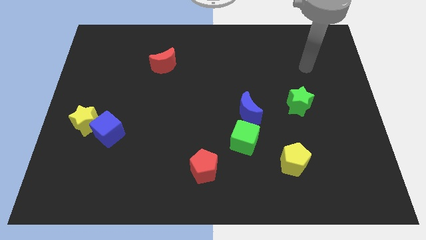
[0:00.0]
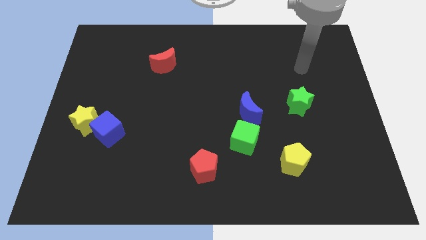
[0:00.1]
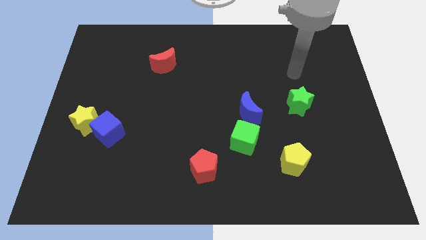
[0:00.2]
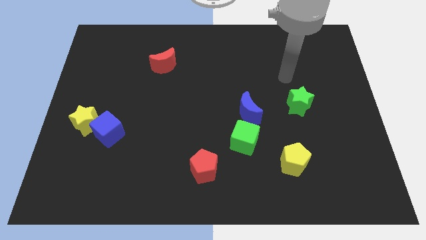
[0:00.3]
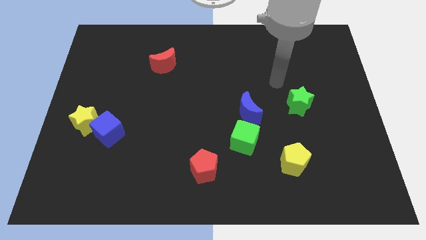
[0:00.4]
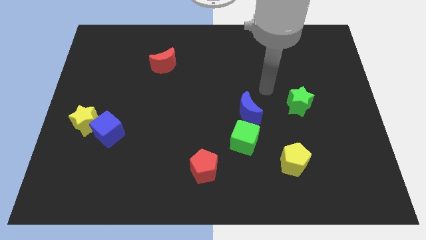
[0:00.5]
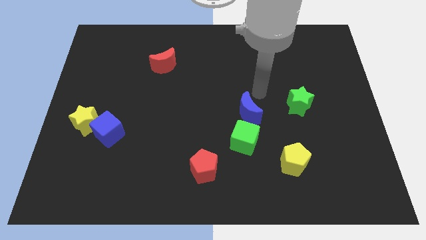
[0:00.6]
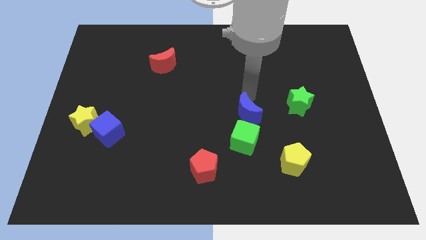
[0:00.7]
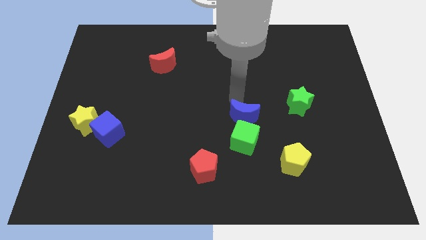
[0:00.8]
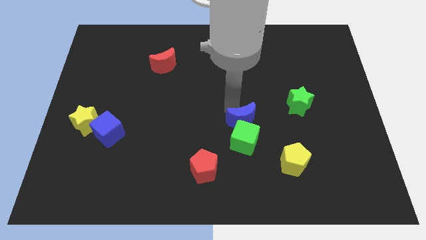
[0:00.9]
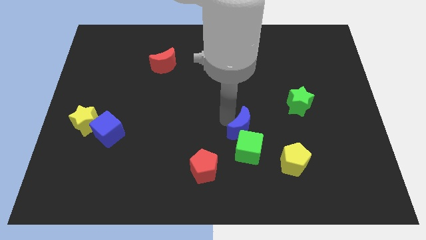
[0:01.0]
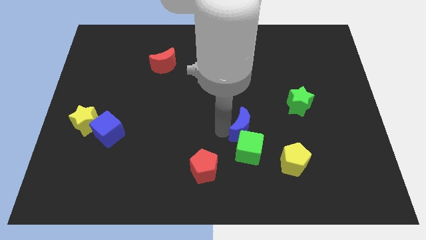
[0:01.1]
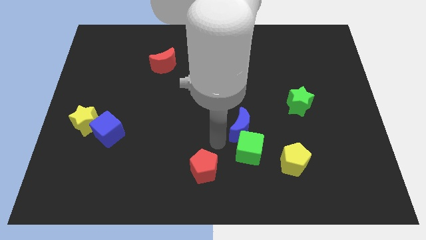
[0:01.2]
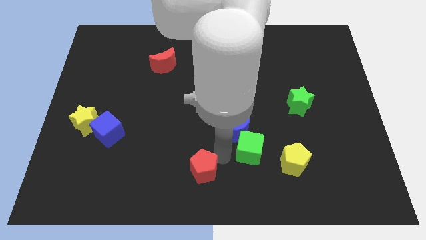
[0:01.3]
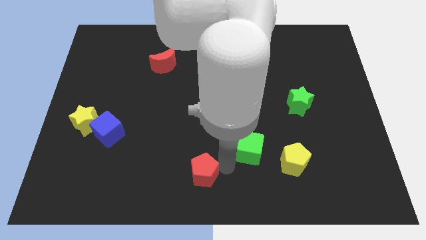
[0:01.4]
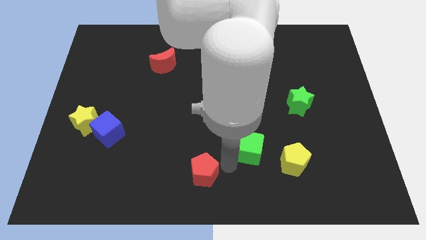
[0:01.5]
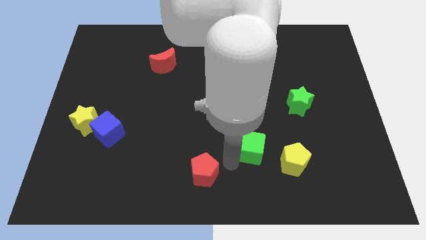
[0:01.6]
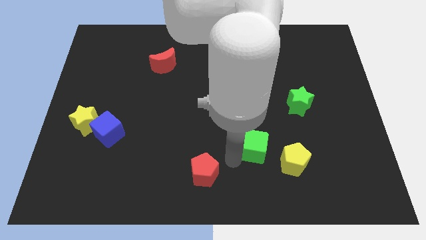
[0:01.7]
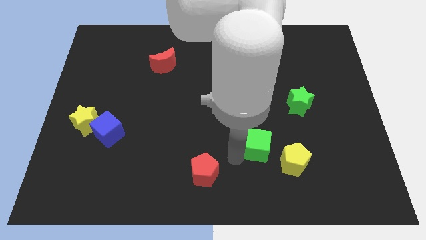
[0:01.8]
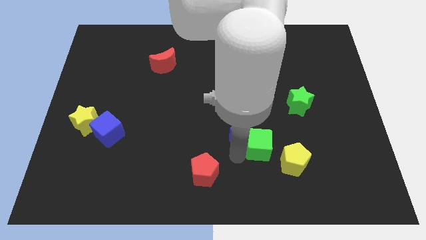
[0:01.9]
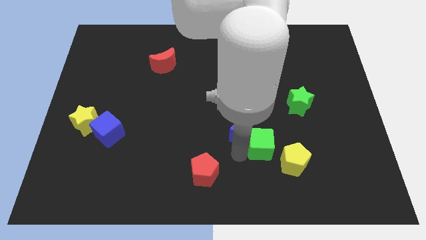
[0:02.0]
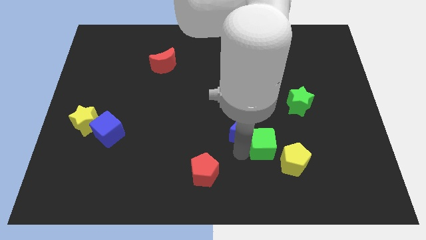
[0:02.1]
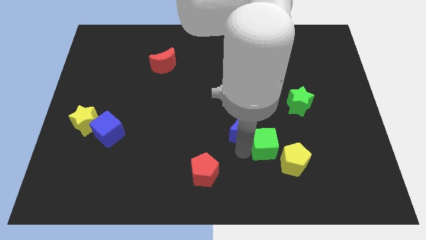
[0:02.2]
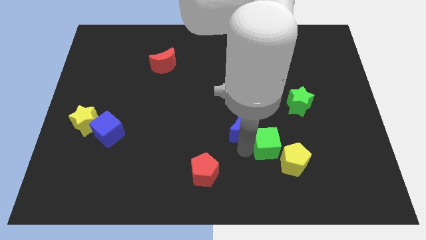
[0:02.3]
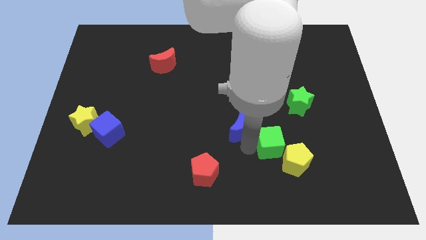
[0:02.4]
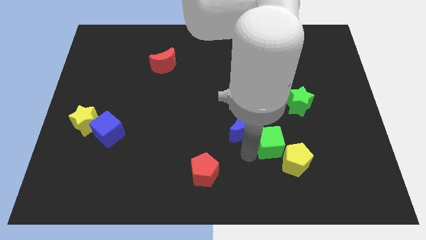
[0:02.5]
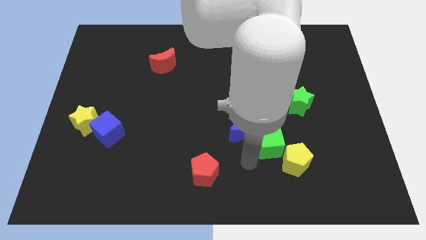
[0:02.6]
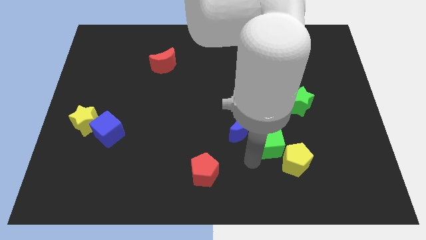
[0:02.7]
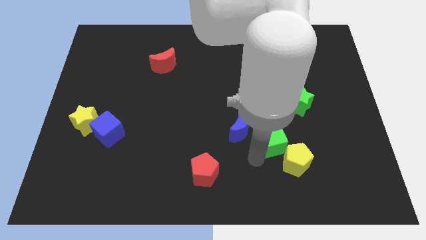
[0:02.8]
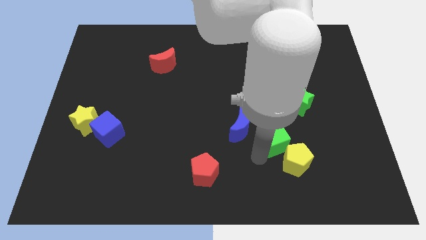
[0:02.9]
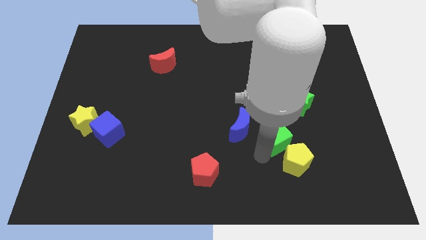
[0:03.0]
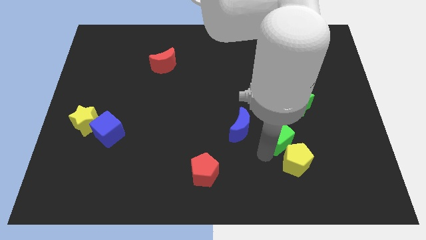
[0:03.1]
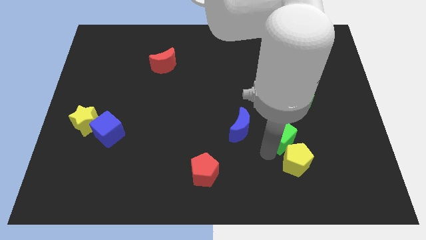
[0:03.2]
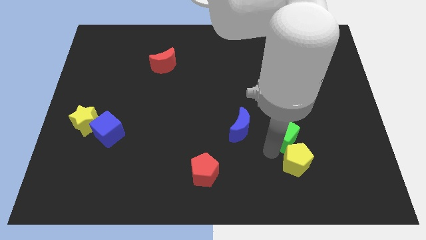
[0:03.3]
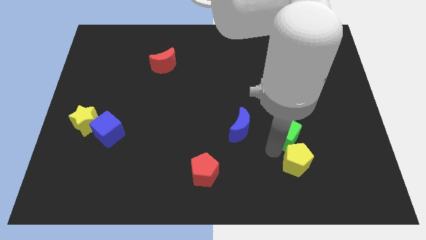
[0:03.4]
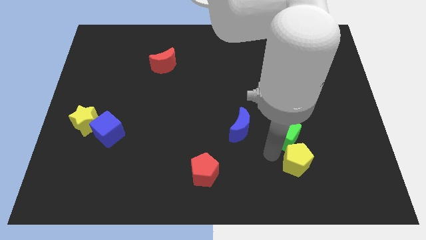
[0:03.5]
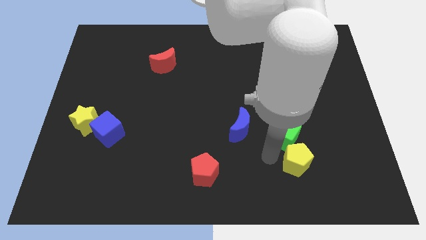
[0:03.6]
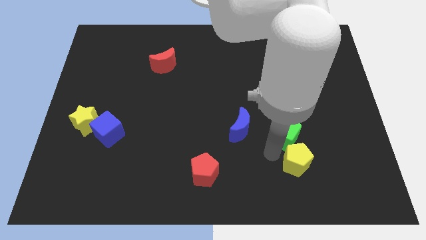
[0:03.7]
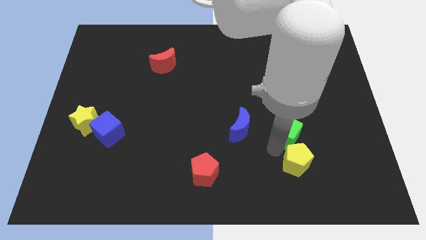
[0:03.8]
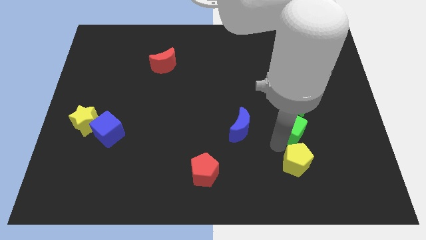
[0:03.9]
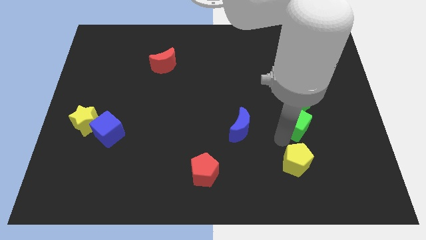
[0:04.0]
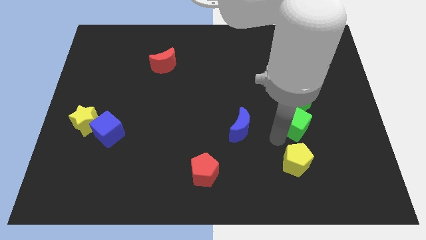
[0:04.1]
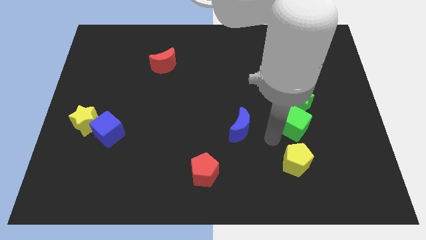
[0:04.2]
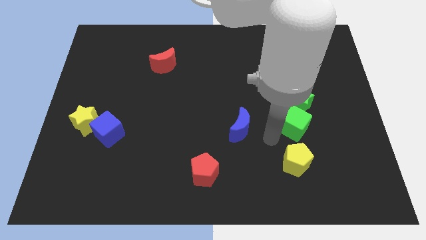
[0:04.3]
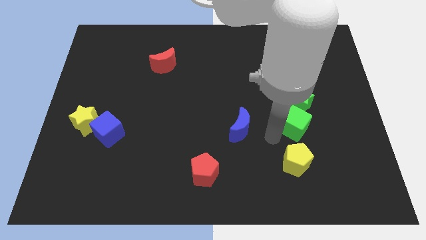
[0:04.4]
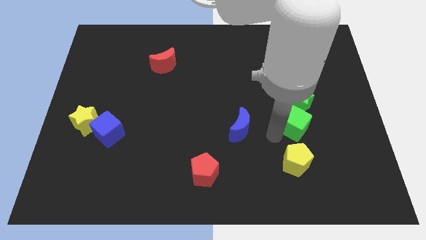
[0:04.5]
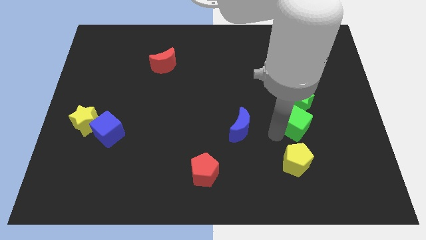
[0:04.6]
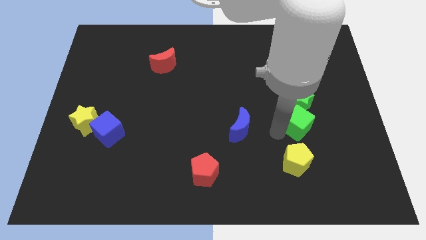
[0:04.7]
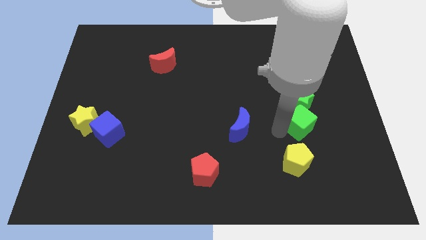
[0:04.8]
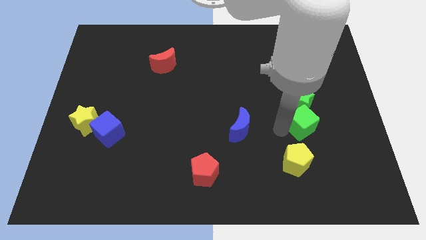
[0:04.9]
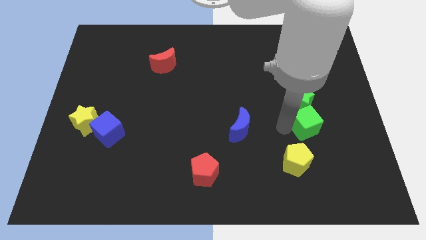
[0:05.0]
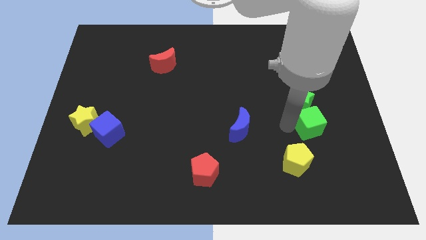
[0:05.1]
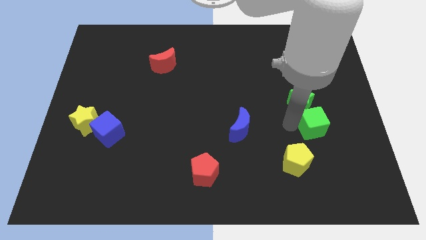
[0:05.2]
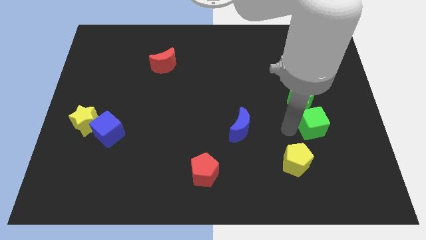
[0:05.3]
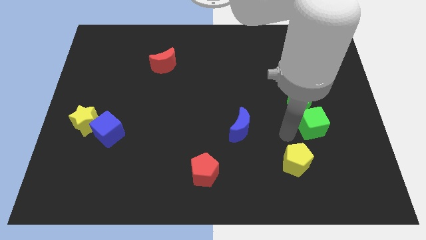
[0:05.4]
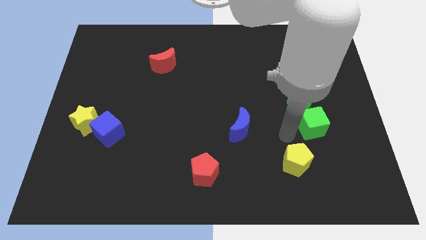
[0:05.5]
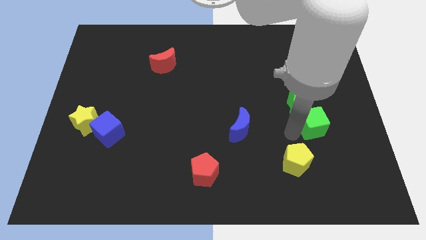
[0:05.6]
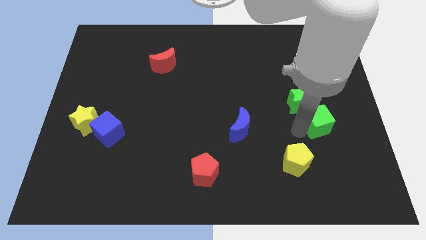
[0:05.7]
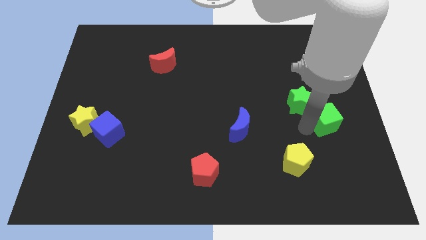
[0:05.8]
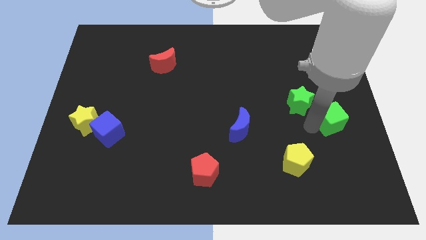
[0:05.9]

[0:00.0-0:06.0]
push the green cube to the center right

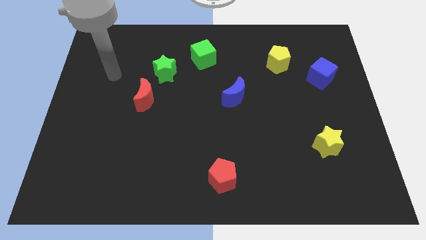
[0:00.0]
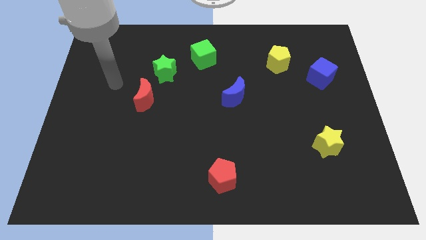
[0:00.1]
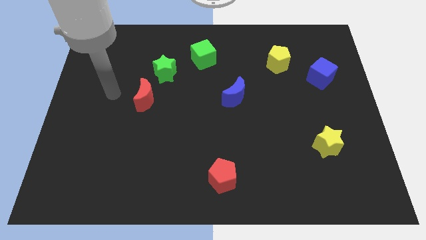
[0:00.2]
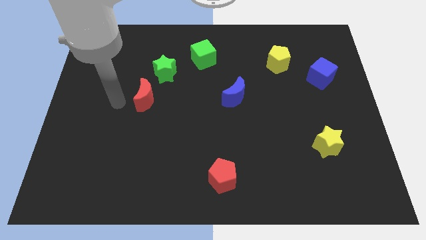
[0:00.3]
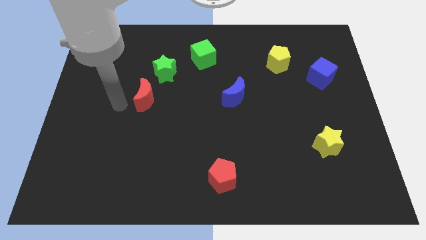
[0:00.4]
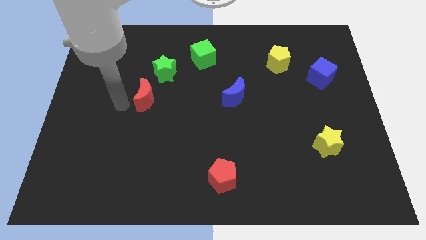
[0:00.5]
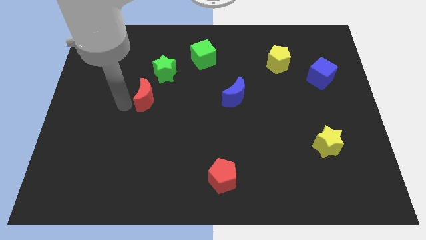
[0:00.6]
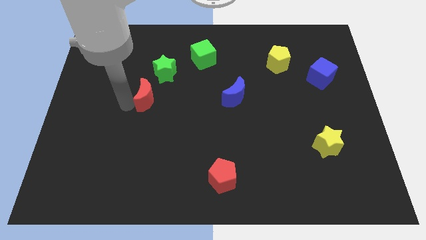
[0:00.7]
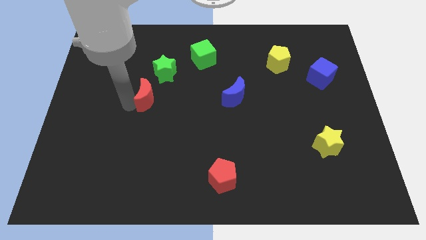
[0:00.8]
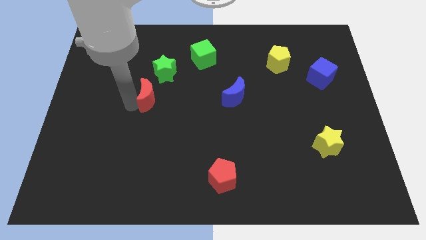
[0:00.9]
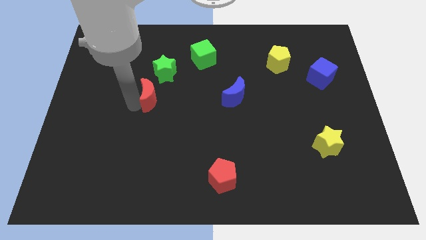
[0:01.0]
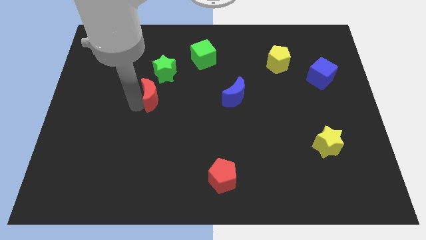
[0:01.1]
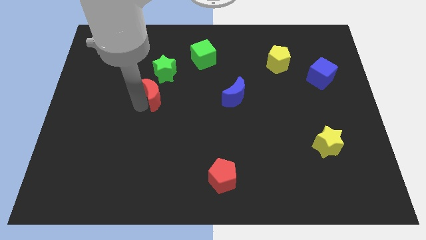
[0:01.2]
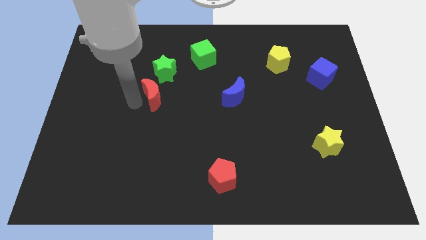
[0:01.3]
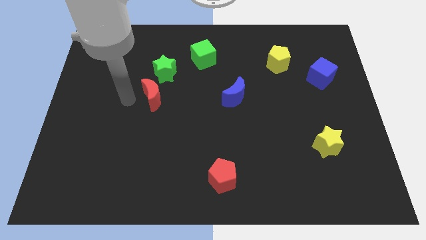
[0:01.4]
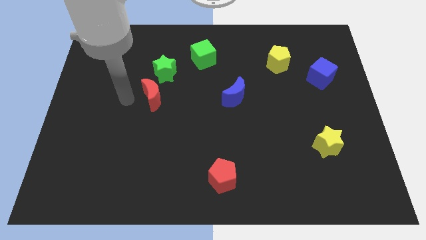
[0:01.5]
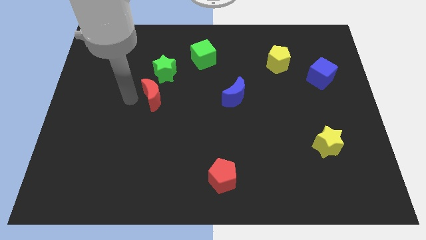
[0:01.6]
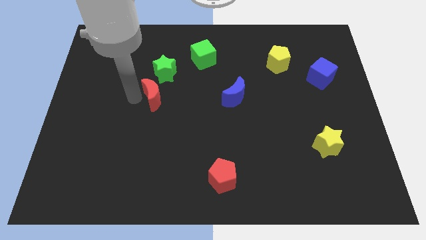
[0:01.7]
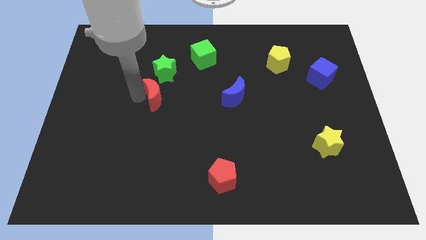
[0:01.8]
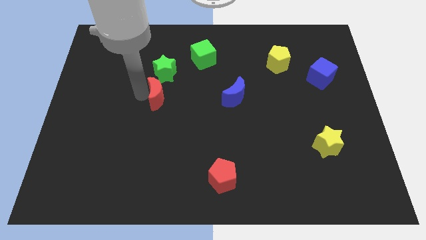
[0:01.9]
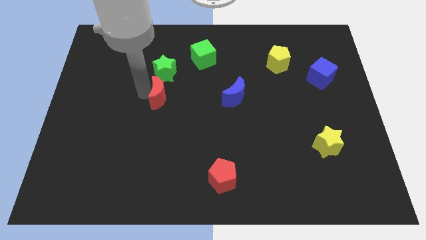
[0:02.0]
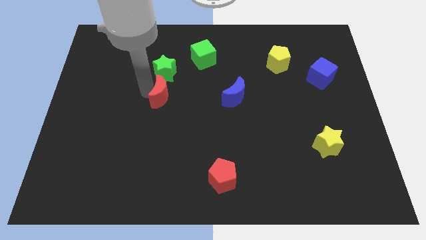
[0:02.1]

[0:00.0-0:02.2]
slide the red moon to the center
